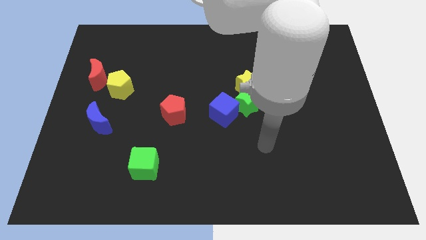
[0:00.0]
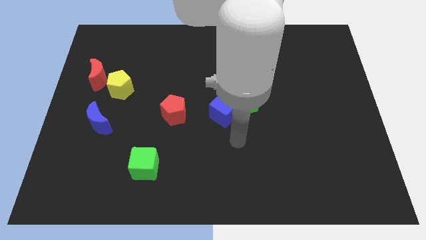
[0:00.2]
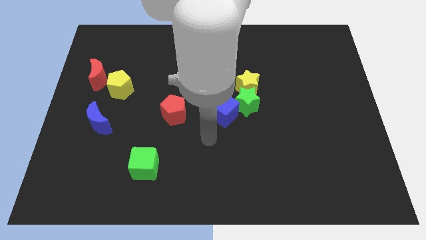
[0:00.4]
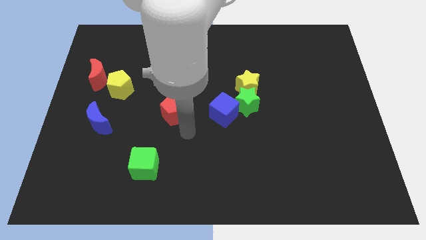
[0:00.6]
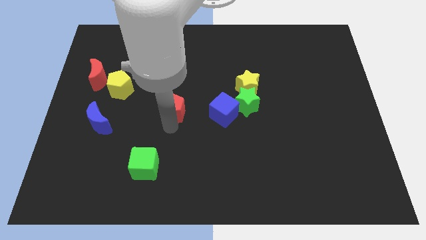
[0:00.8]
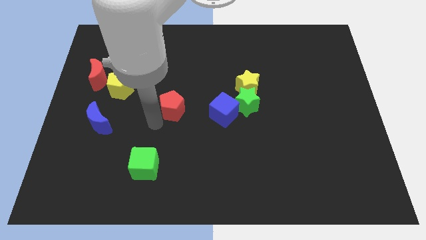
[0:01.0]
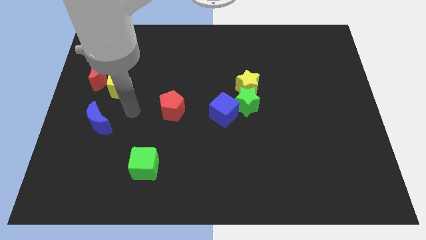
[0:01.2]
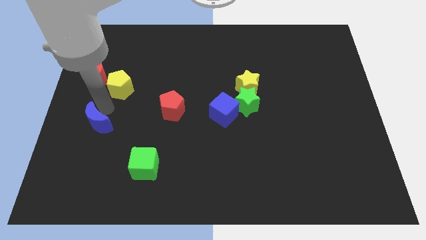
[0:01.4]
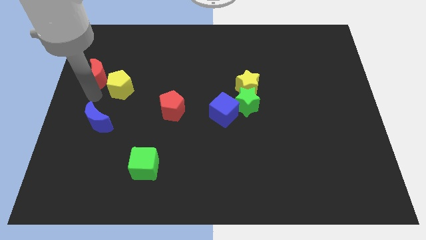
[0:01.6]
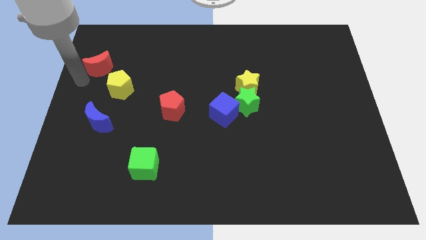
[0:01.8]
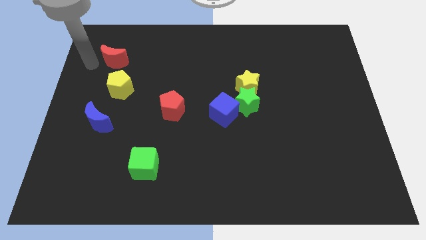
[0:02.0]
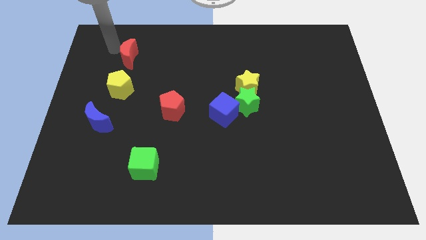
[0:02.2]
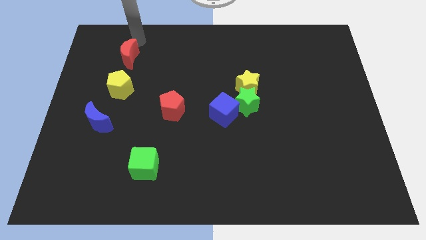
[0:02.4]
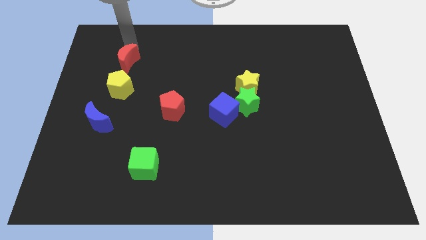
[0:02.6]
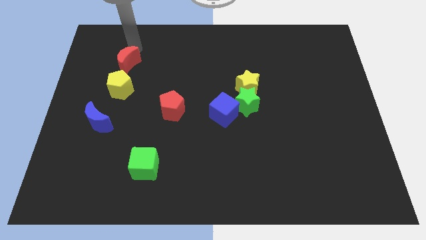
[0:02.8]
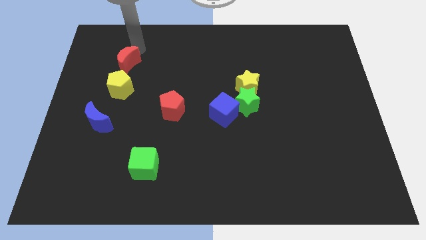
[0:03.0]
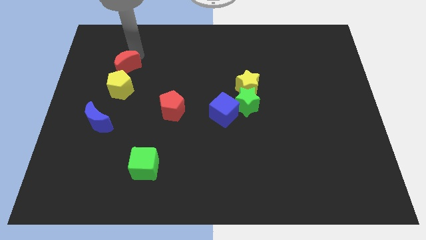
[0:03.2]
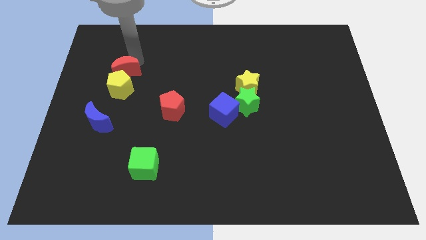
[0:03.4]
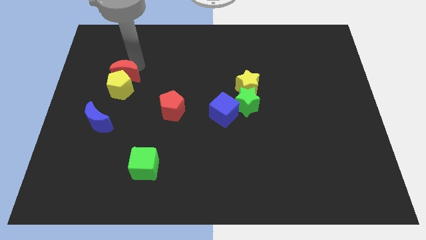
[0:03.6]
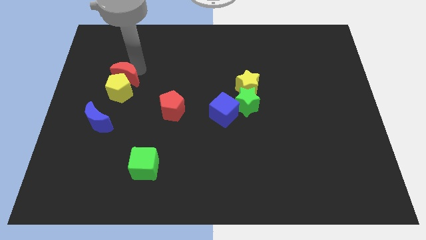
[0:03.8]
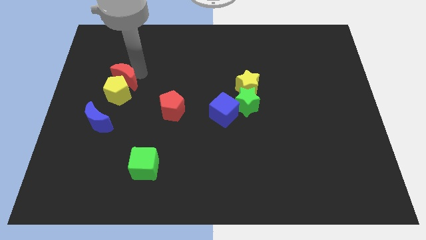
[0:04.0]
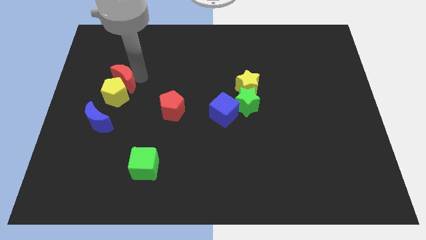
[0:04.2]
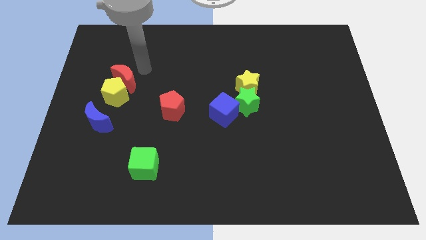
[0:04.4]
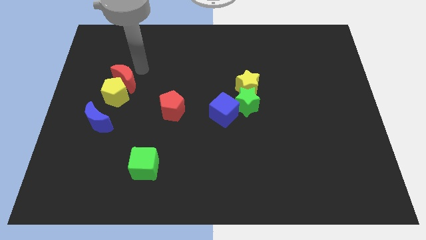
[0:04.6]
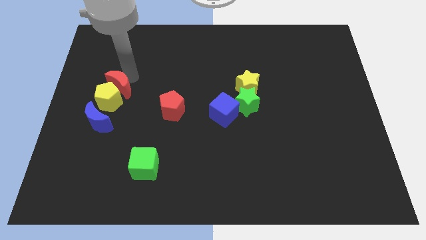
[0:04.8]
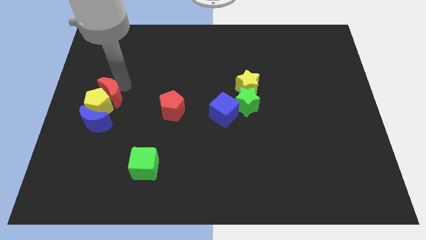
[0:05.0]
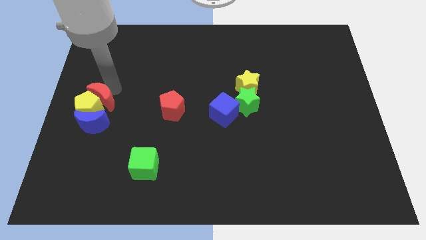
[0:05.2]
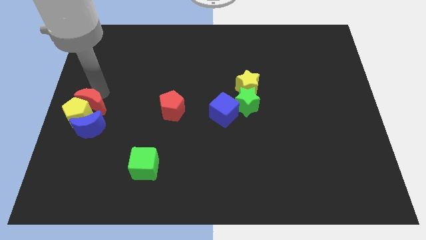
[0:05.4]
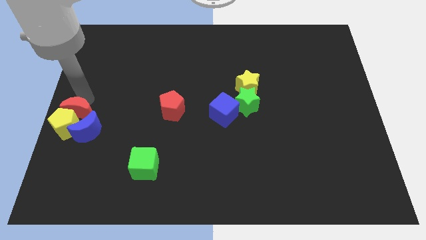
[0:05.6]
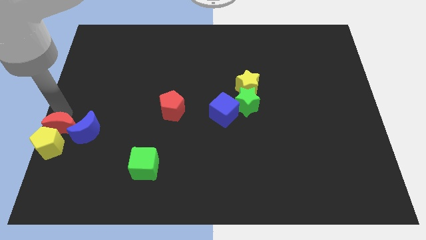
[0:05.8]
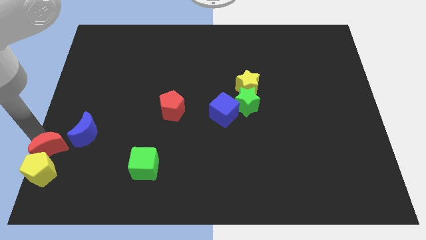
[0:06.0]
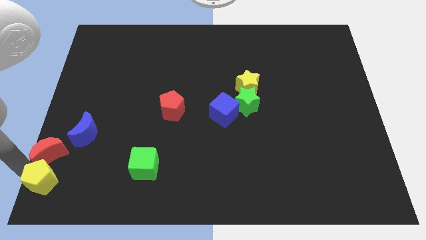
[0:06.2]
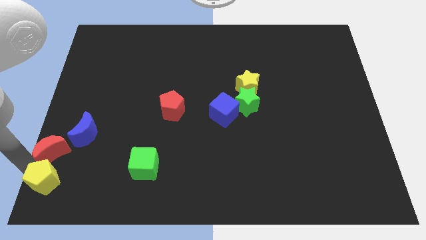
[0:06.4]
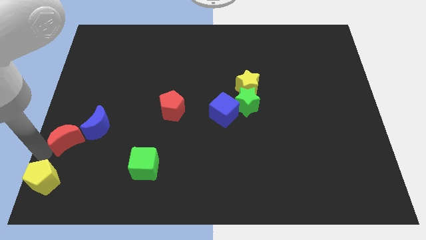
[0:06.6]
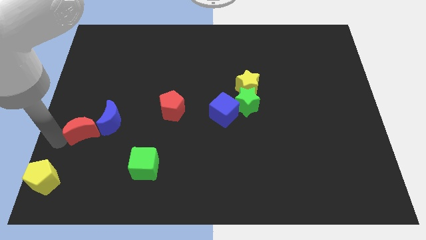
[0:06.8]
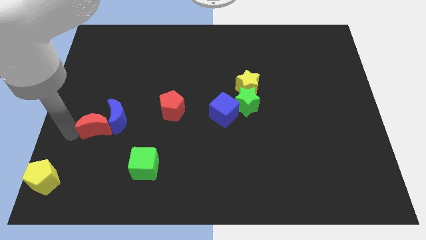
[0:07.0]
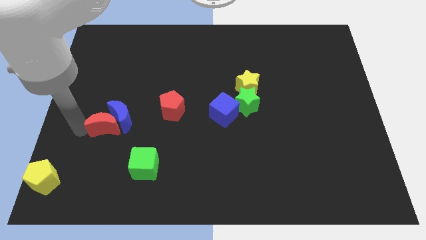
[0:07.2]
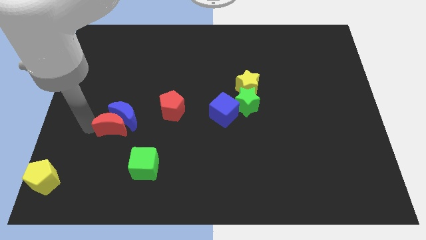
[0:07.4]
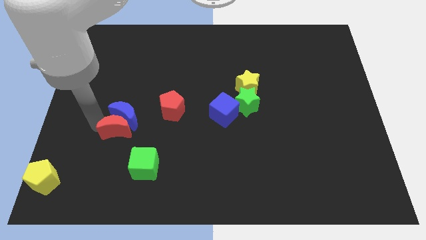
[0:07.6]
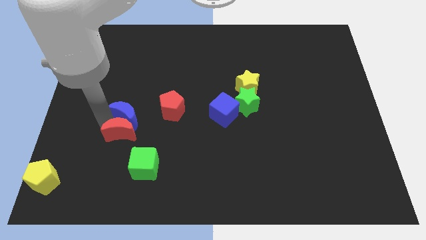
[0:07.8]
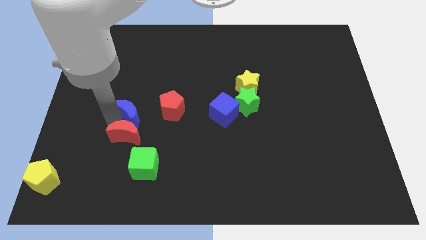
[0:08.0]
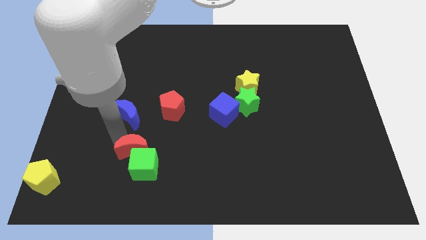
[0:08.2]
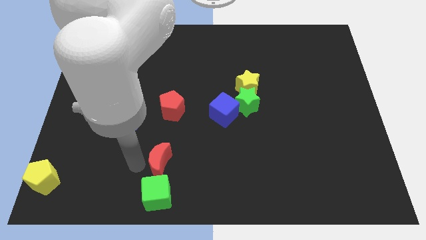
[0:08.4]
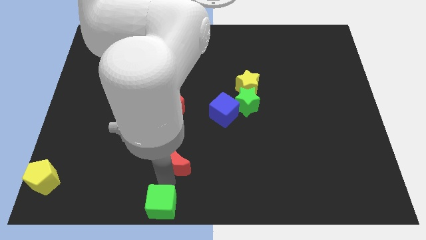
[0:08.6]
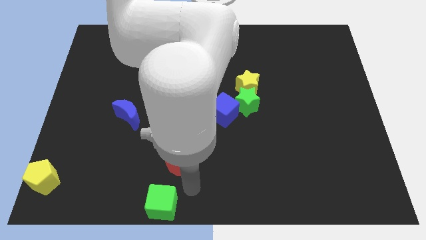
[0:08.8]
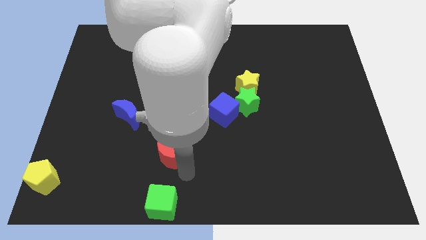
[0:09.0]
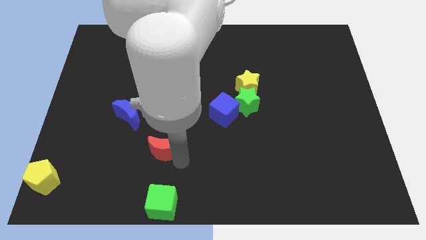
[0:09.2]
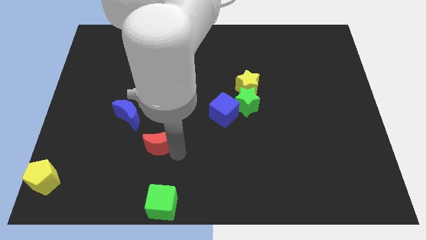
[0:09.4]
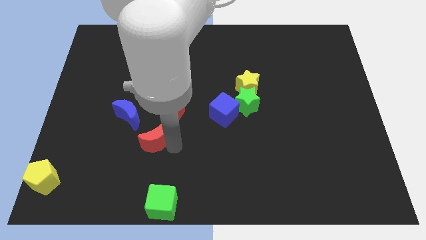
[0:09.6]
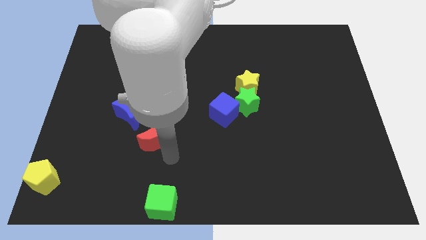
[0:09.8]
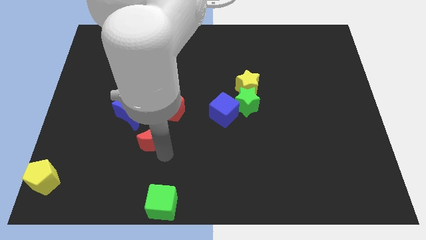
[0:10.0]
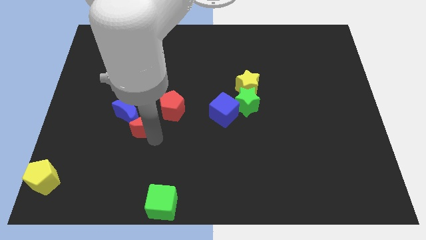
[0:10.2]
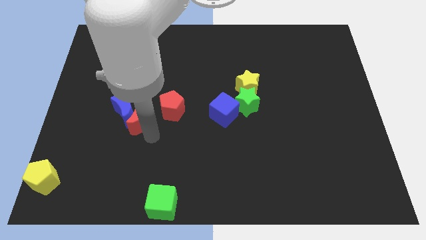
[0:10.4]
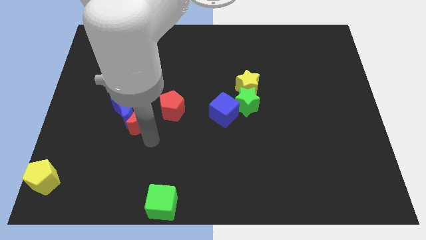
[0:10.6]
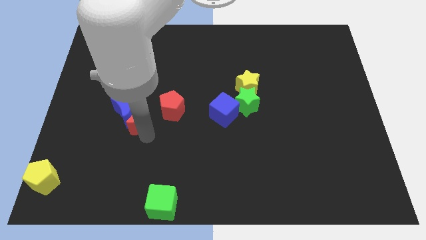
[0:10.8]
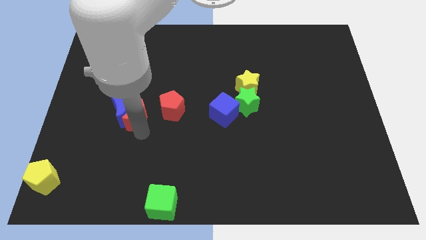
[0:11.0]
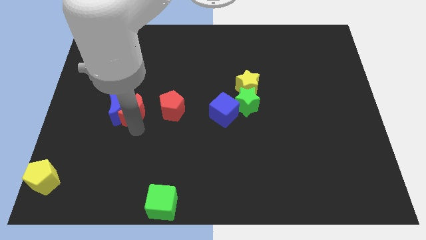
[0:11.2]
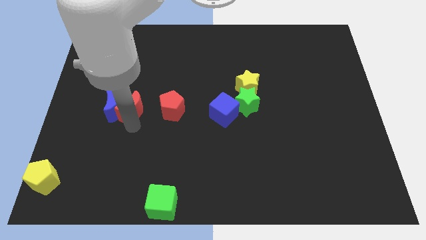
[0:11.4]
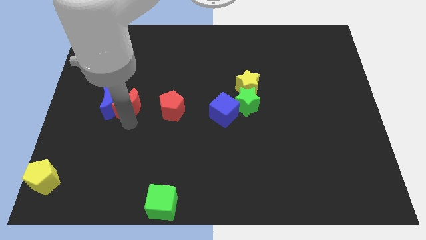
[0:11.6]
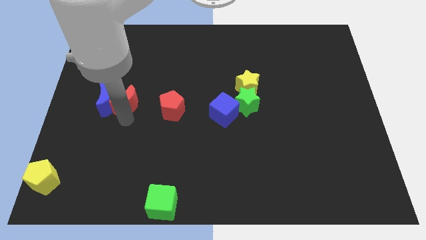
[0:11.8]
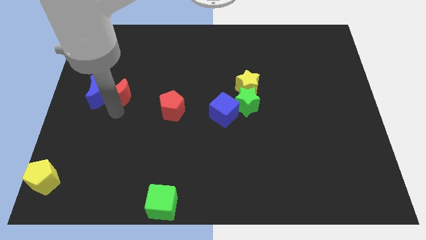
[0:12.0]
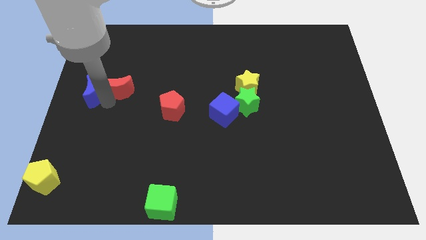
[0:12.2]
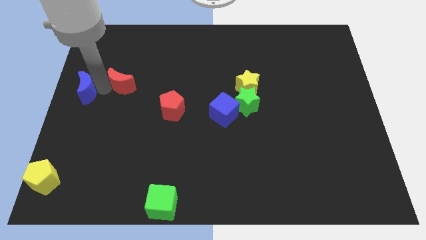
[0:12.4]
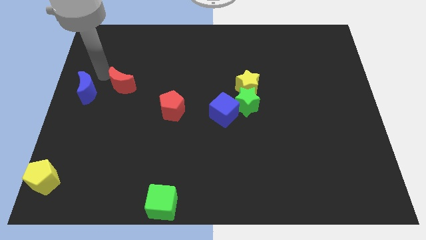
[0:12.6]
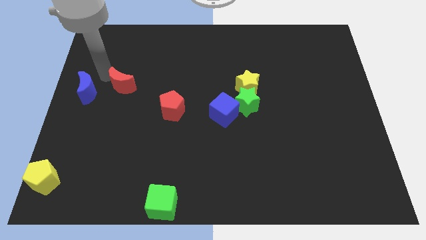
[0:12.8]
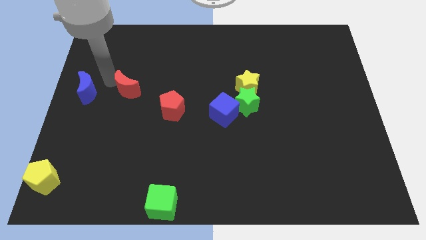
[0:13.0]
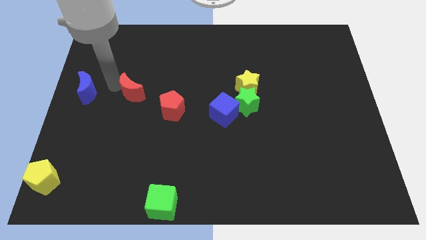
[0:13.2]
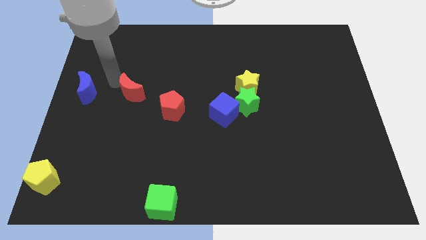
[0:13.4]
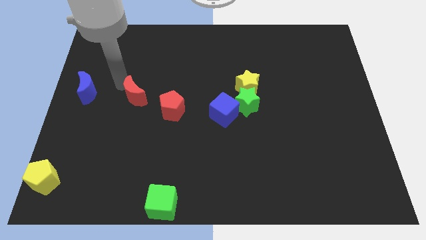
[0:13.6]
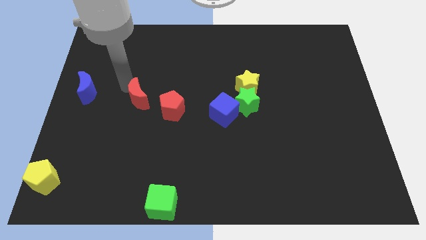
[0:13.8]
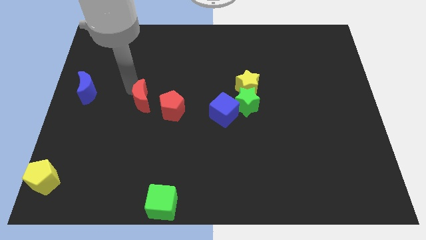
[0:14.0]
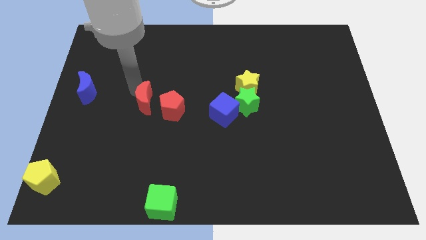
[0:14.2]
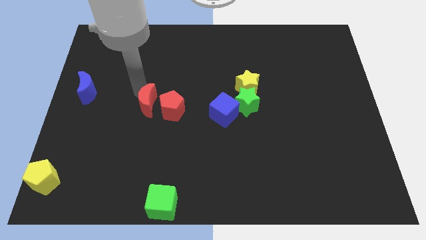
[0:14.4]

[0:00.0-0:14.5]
push the red moon close to the red pentagon
